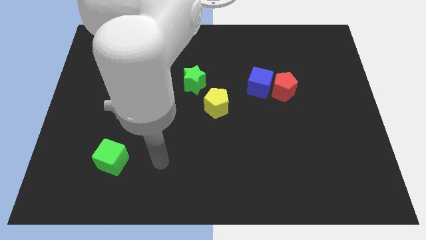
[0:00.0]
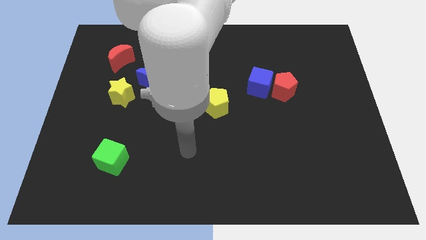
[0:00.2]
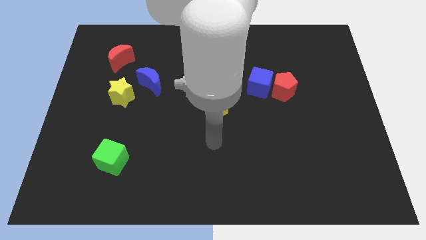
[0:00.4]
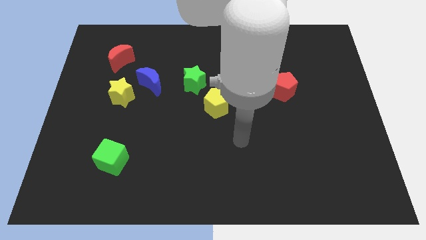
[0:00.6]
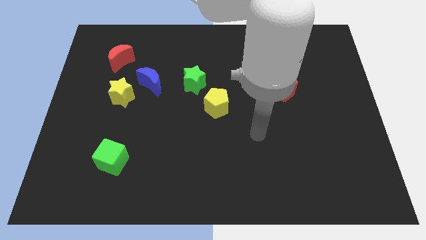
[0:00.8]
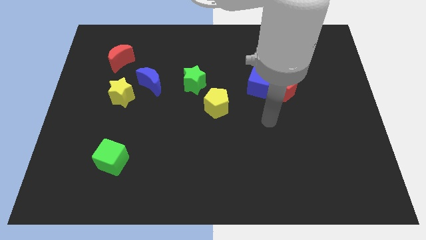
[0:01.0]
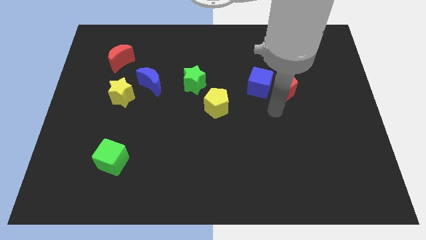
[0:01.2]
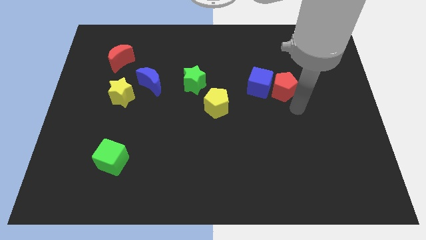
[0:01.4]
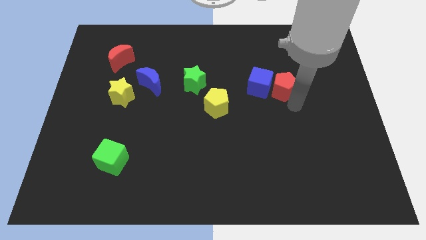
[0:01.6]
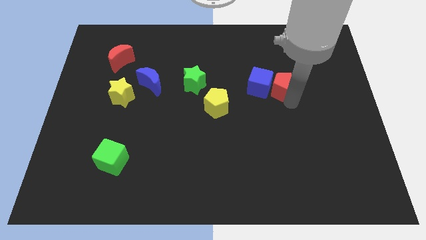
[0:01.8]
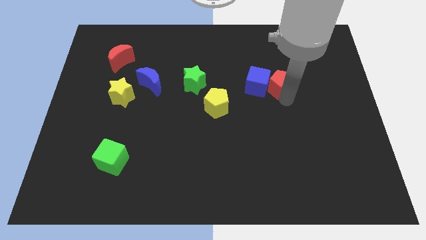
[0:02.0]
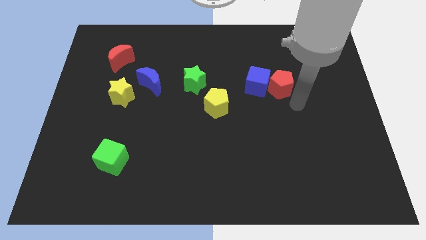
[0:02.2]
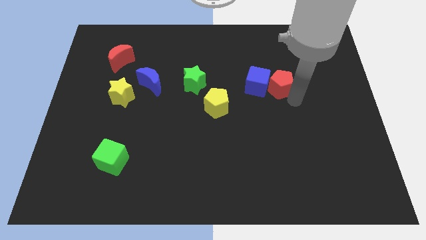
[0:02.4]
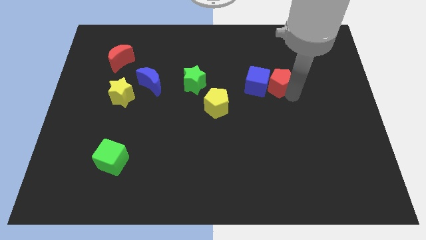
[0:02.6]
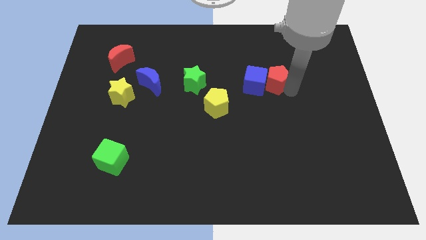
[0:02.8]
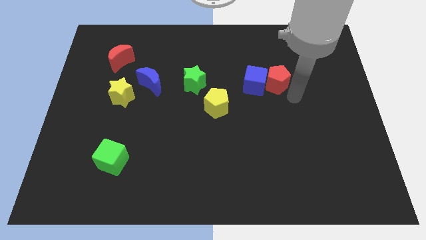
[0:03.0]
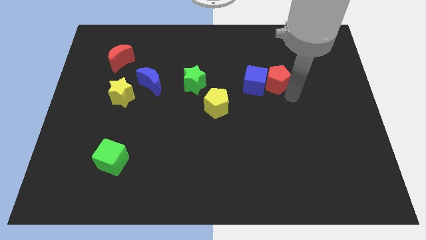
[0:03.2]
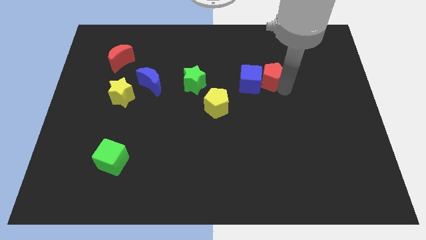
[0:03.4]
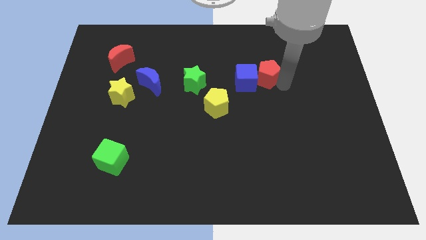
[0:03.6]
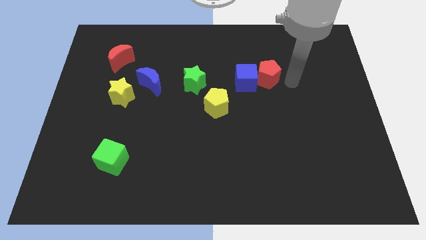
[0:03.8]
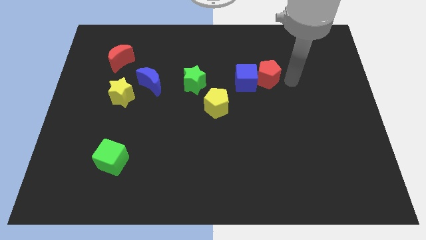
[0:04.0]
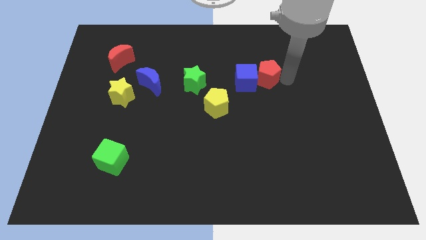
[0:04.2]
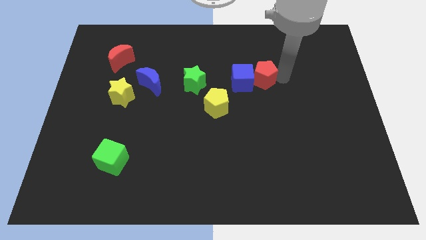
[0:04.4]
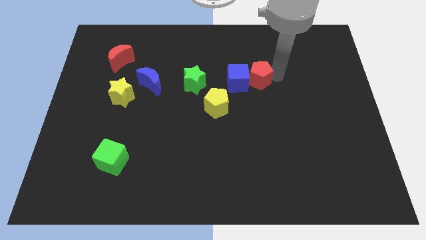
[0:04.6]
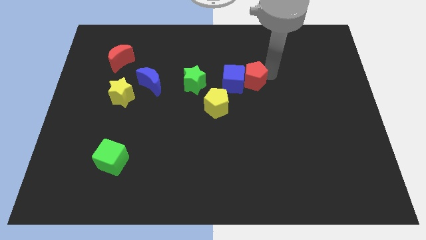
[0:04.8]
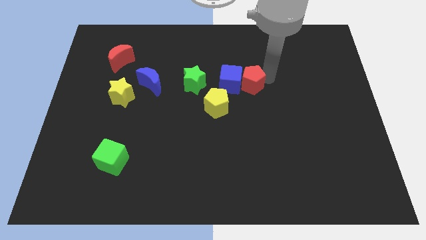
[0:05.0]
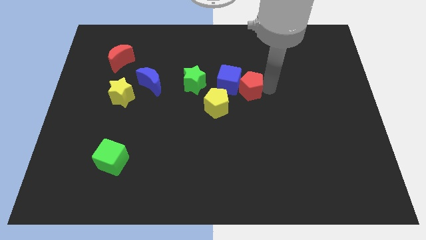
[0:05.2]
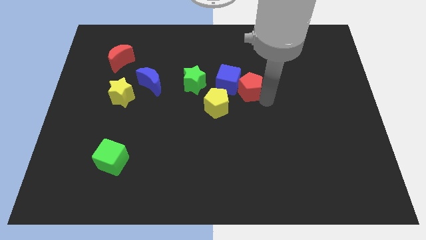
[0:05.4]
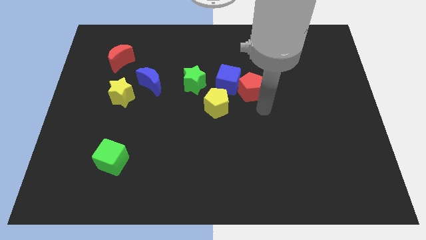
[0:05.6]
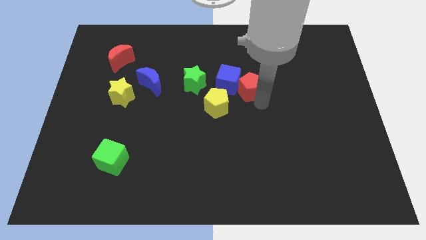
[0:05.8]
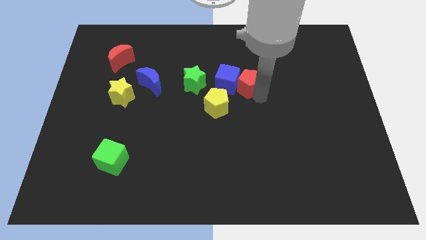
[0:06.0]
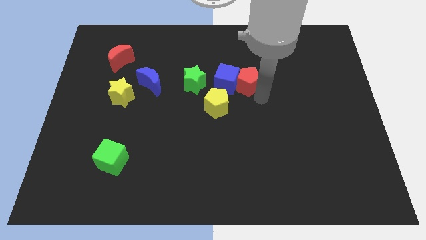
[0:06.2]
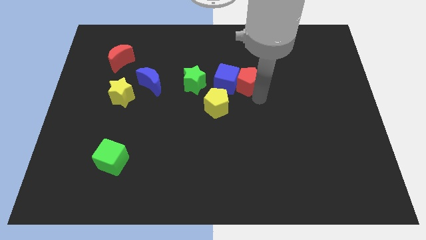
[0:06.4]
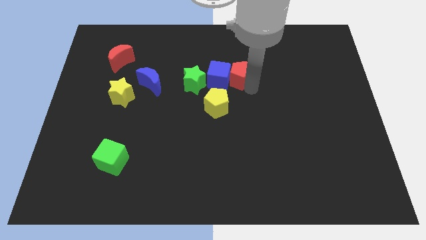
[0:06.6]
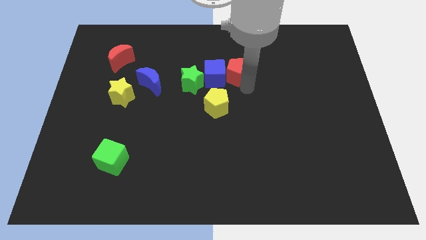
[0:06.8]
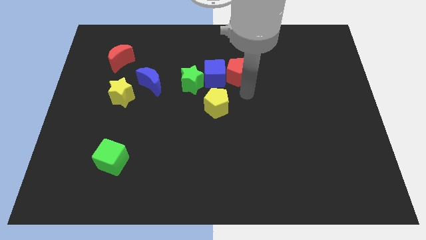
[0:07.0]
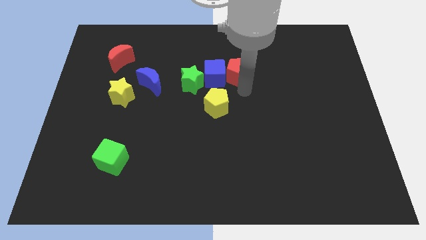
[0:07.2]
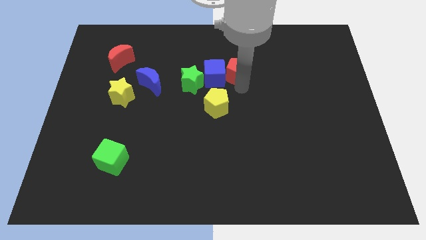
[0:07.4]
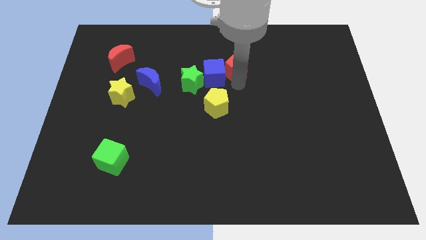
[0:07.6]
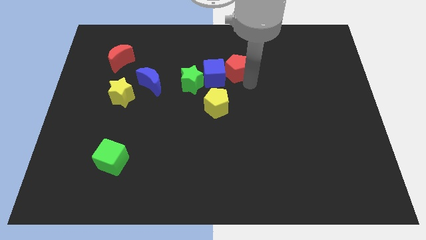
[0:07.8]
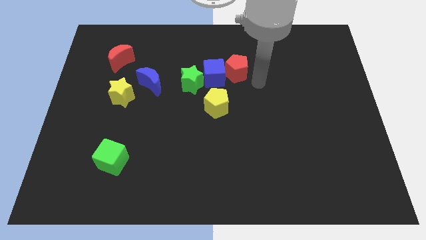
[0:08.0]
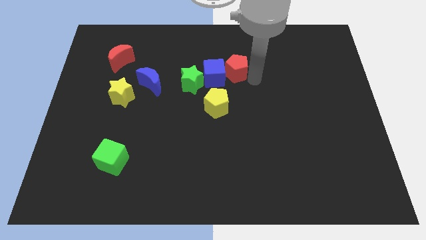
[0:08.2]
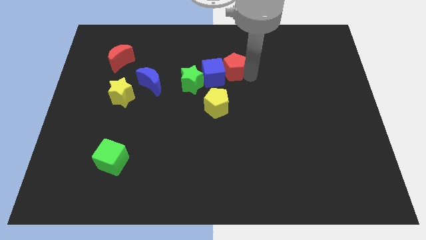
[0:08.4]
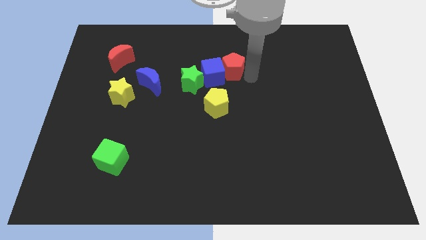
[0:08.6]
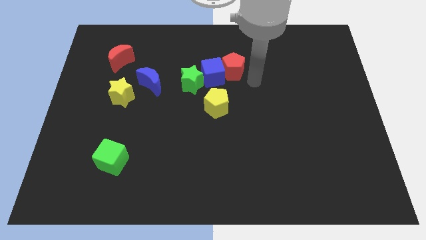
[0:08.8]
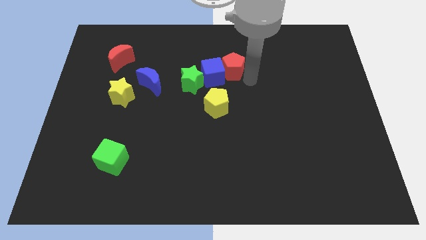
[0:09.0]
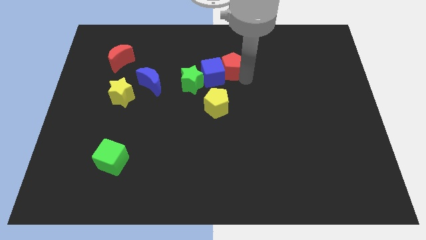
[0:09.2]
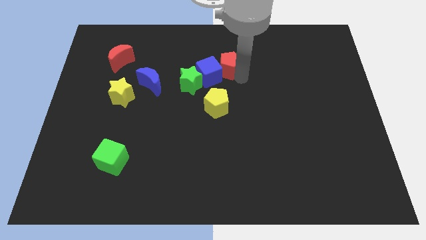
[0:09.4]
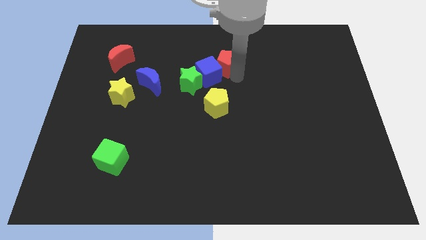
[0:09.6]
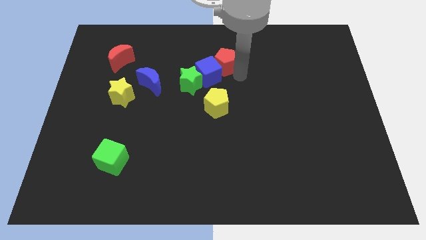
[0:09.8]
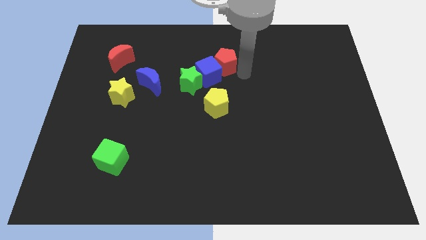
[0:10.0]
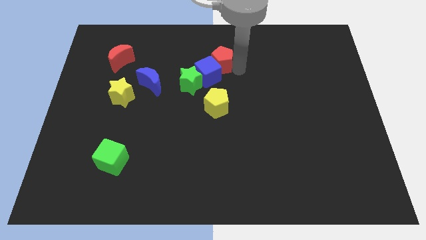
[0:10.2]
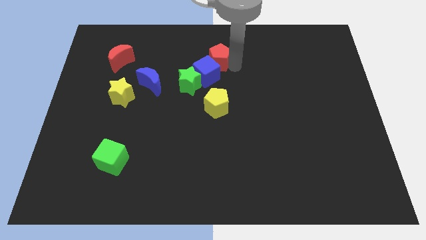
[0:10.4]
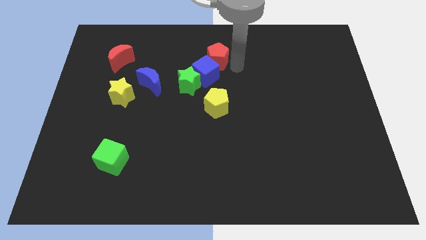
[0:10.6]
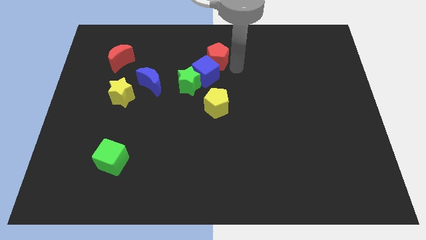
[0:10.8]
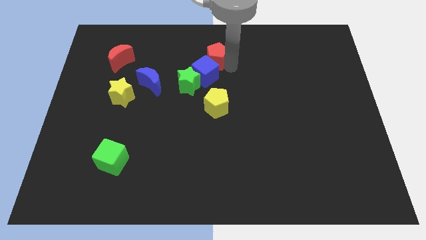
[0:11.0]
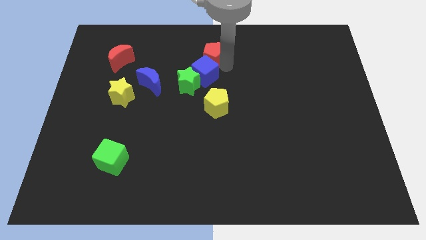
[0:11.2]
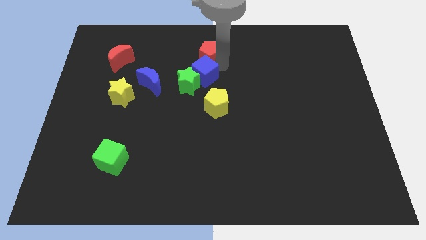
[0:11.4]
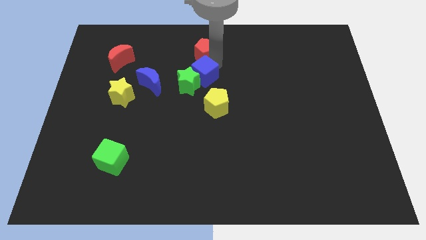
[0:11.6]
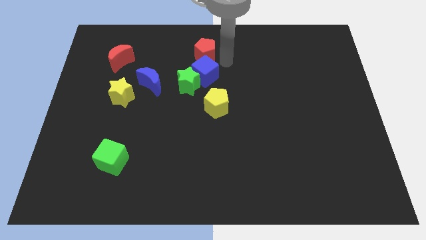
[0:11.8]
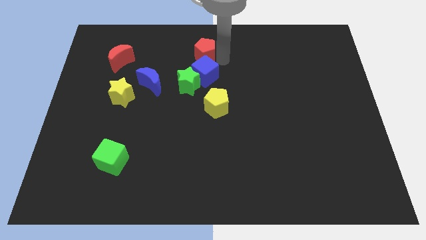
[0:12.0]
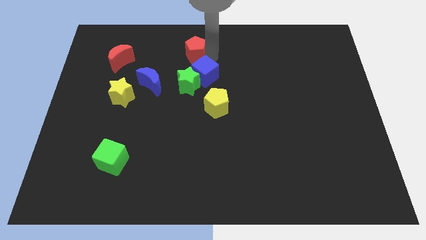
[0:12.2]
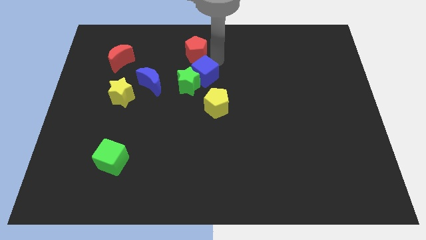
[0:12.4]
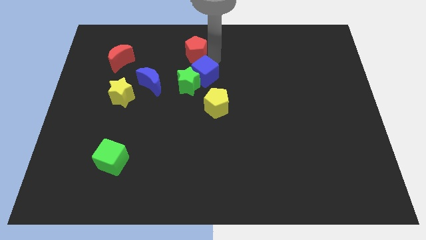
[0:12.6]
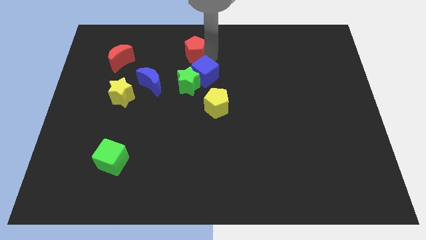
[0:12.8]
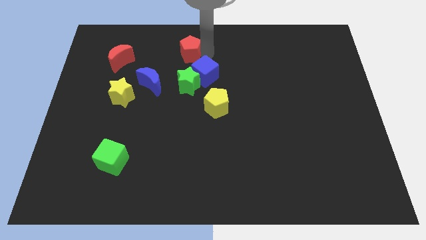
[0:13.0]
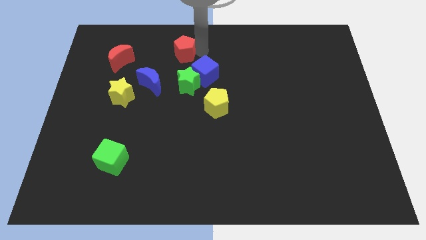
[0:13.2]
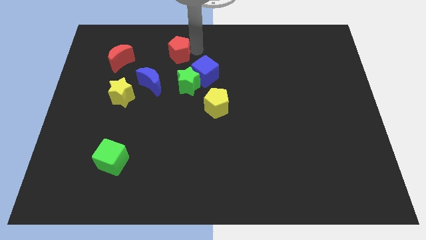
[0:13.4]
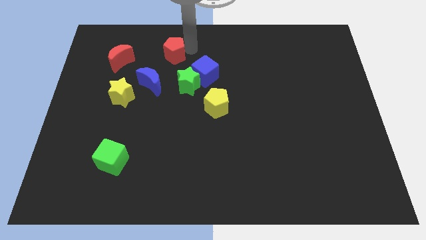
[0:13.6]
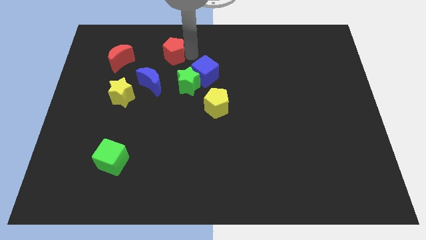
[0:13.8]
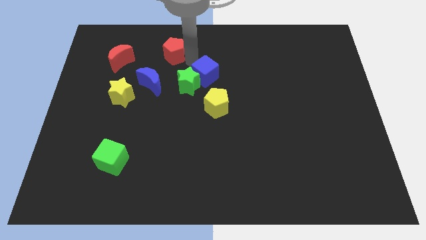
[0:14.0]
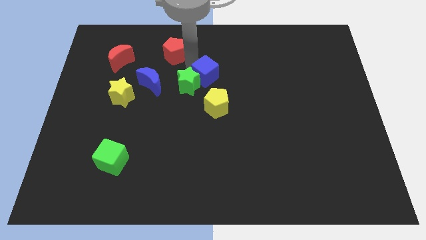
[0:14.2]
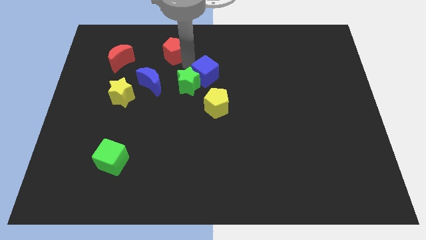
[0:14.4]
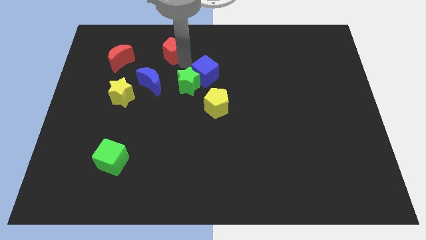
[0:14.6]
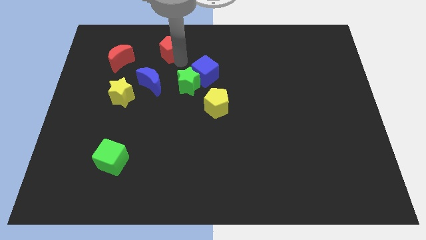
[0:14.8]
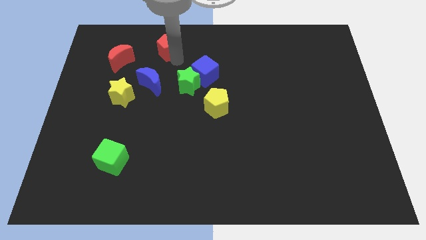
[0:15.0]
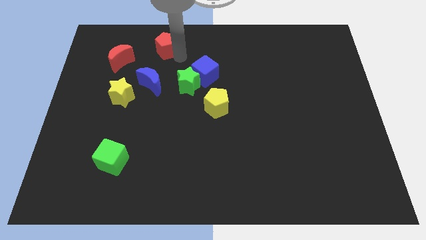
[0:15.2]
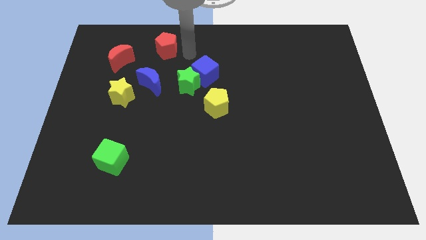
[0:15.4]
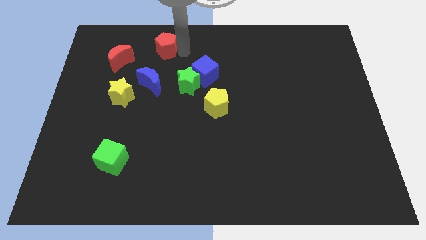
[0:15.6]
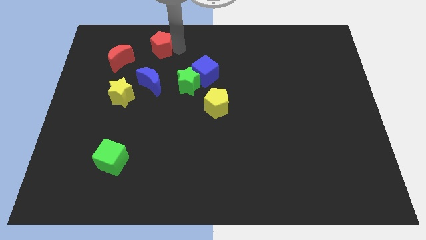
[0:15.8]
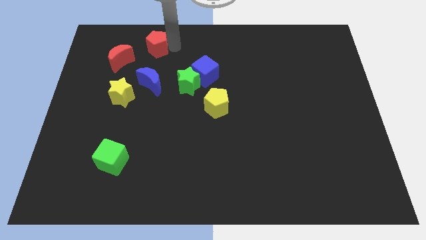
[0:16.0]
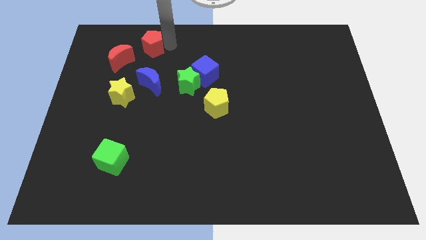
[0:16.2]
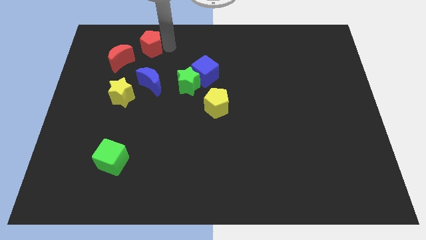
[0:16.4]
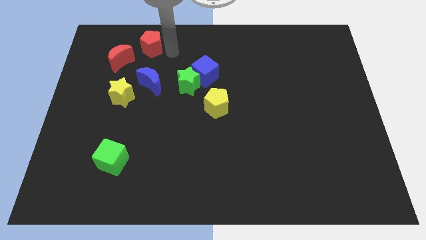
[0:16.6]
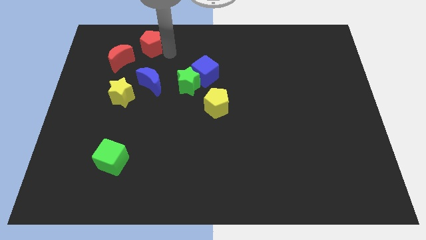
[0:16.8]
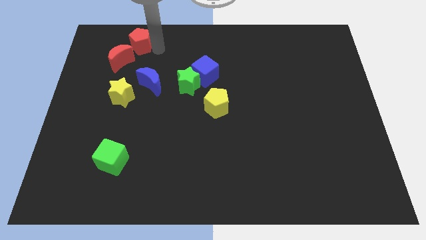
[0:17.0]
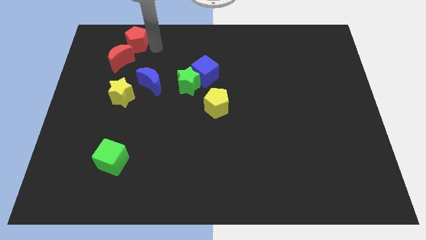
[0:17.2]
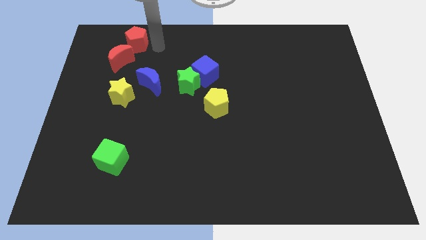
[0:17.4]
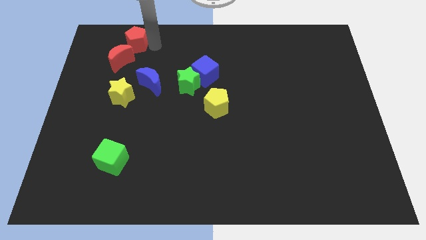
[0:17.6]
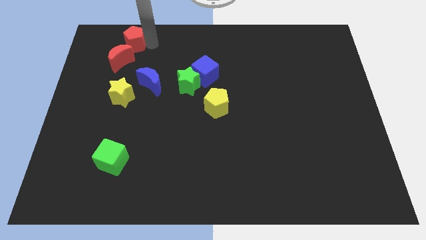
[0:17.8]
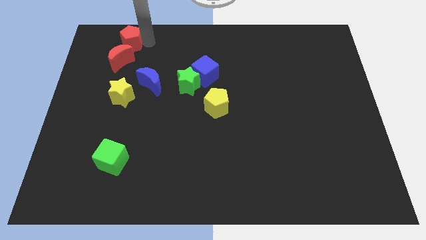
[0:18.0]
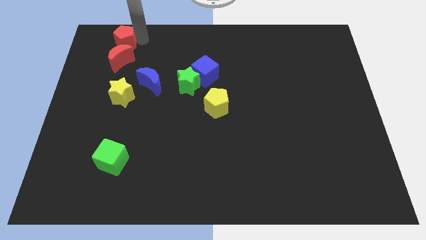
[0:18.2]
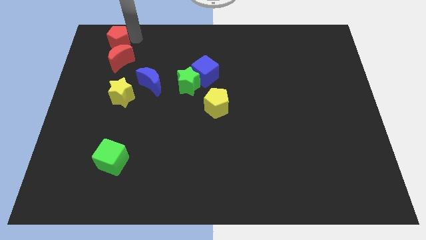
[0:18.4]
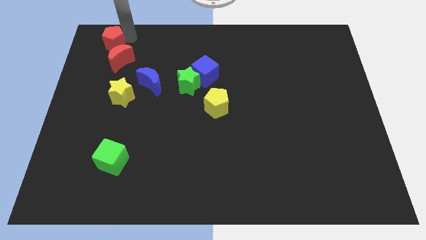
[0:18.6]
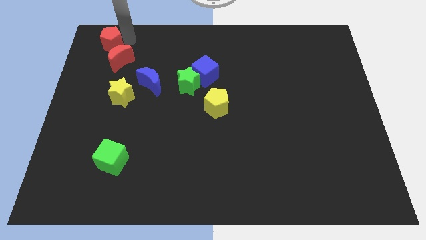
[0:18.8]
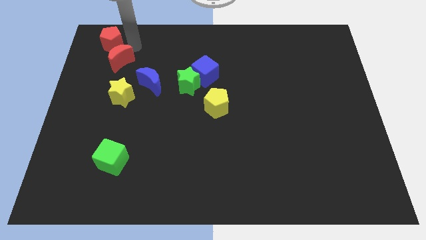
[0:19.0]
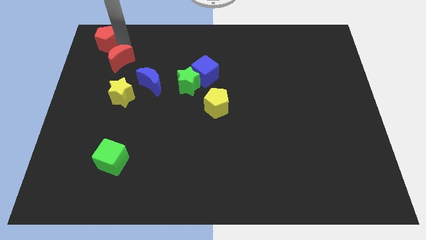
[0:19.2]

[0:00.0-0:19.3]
move the red pentagon to the upper left corner
